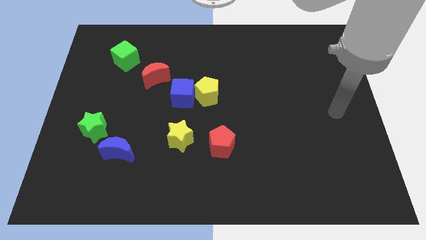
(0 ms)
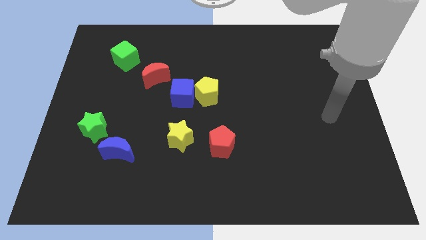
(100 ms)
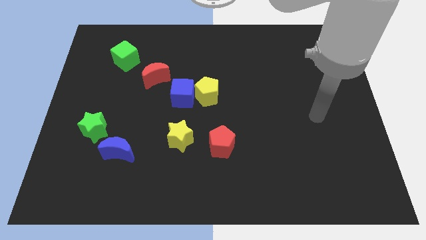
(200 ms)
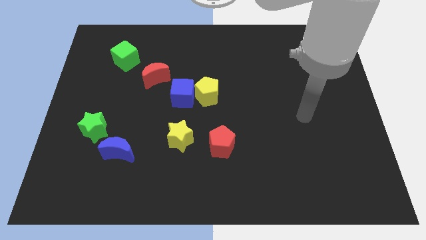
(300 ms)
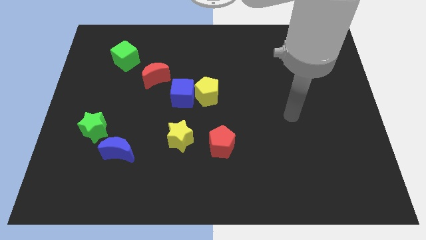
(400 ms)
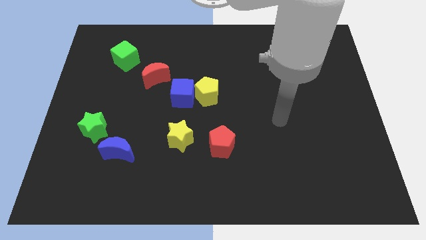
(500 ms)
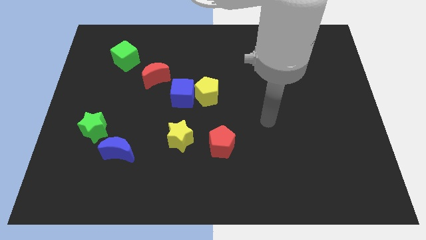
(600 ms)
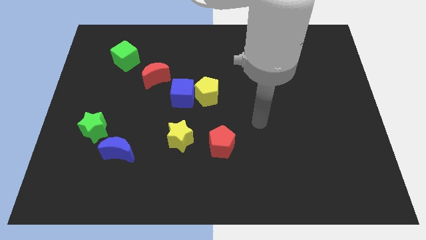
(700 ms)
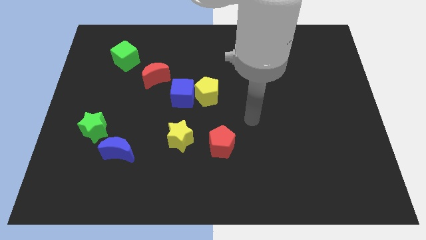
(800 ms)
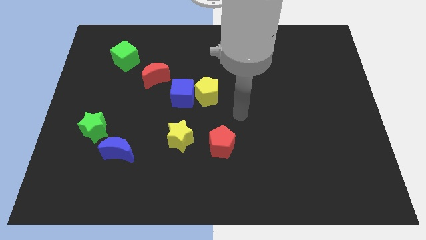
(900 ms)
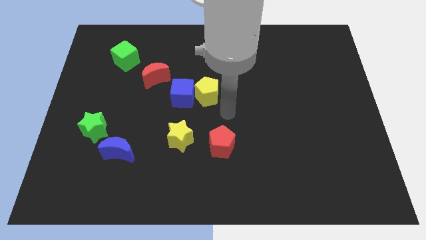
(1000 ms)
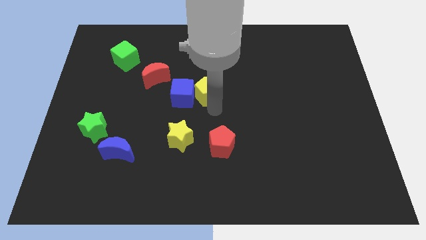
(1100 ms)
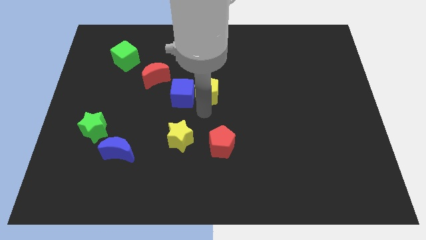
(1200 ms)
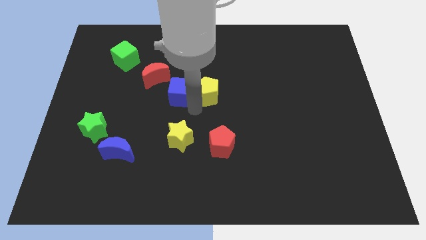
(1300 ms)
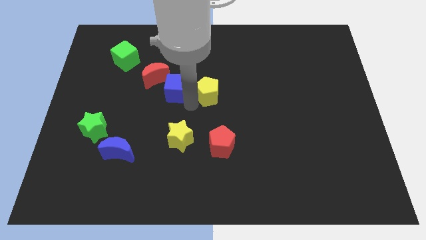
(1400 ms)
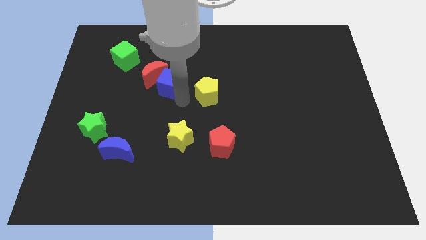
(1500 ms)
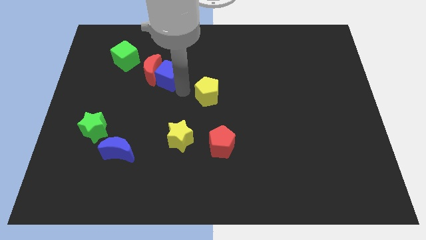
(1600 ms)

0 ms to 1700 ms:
pull the yellow pentagon apart from the blue cube

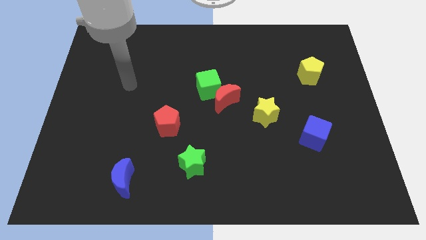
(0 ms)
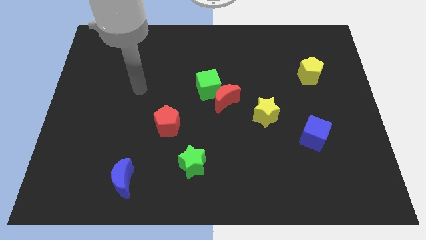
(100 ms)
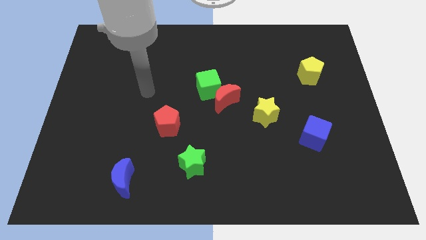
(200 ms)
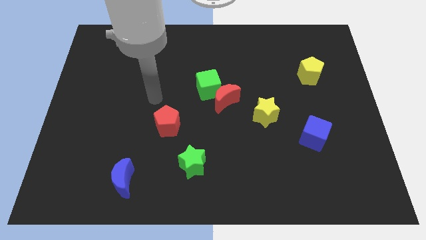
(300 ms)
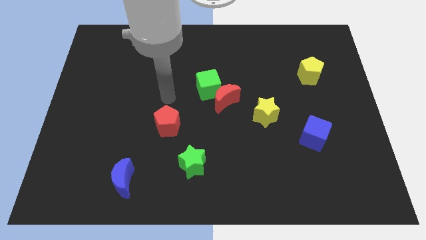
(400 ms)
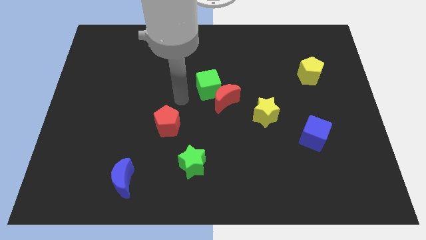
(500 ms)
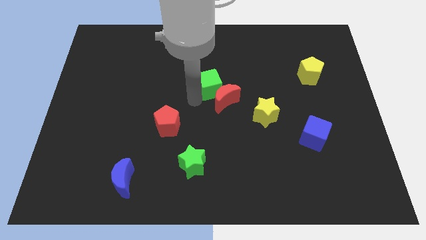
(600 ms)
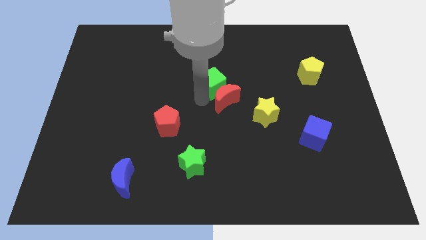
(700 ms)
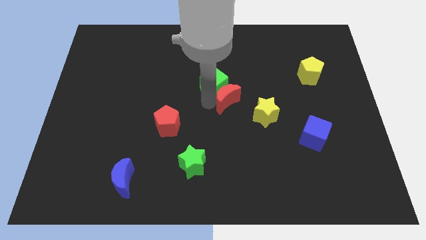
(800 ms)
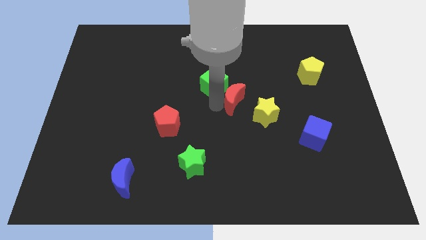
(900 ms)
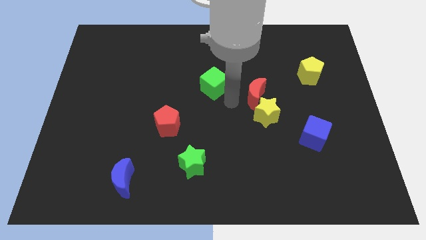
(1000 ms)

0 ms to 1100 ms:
pull the green cube apart from the red moon

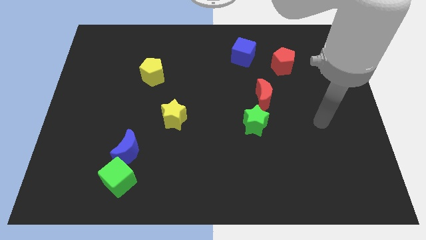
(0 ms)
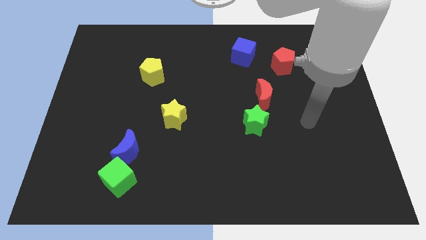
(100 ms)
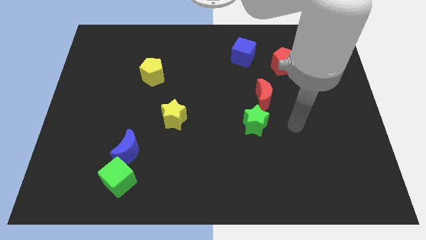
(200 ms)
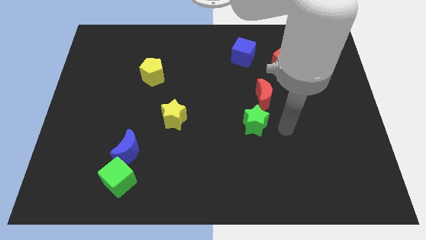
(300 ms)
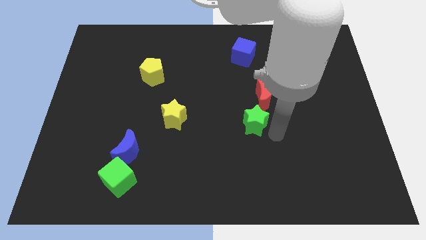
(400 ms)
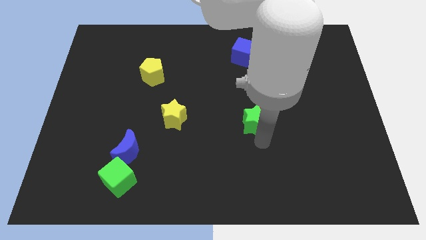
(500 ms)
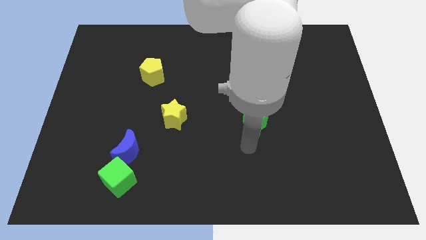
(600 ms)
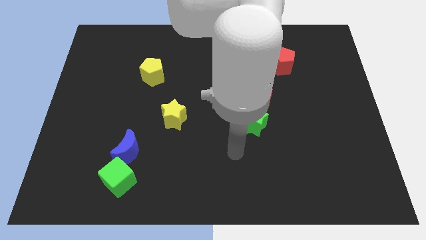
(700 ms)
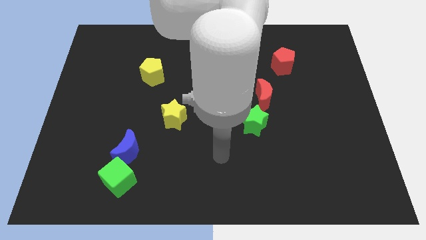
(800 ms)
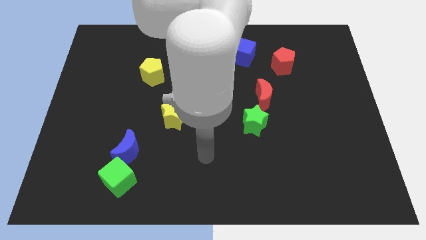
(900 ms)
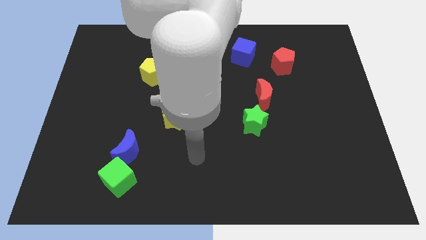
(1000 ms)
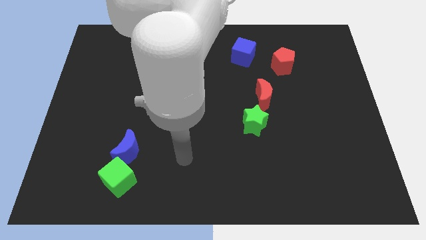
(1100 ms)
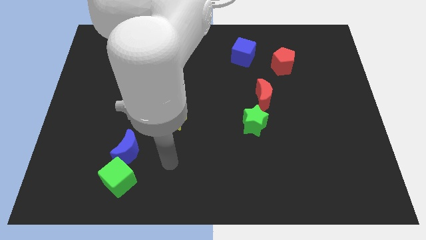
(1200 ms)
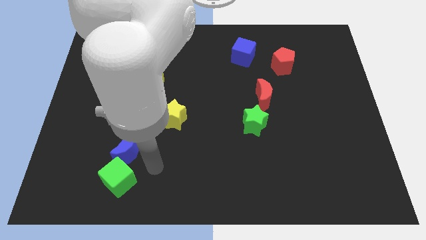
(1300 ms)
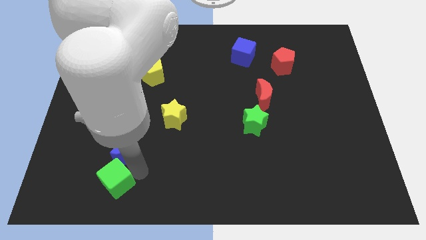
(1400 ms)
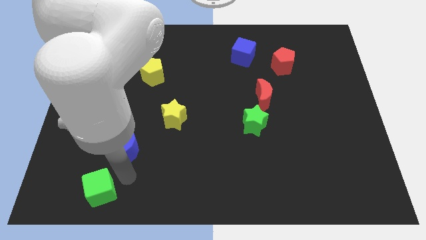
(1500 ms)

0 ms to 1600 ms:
pull the blue moon apart from the green cube

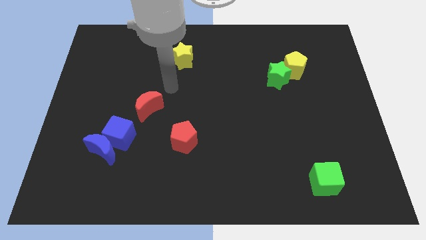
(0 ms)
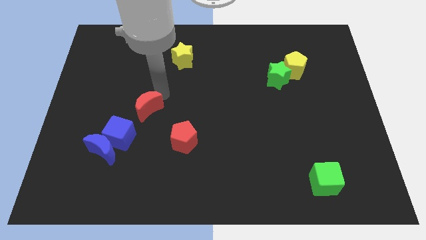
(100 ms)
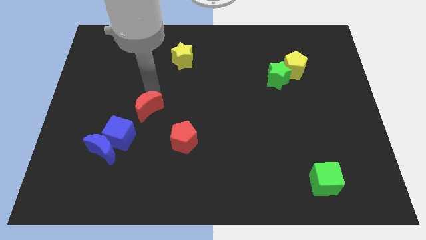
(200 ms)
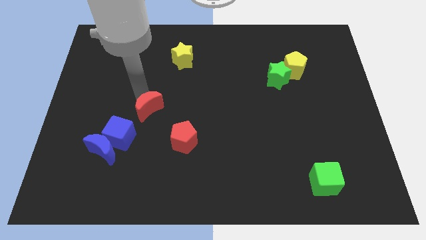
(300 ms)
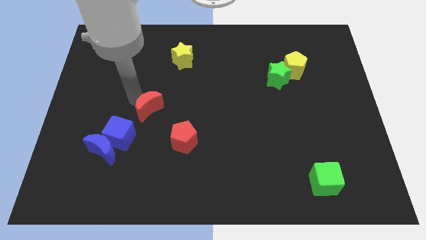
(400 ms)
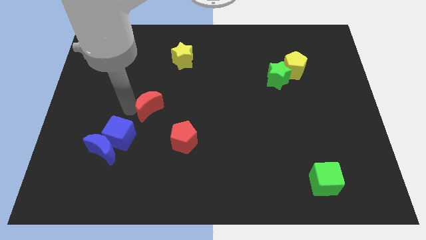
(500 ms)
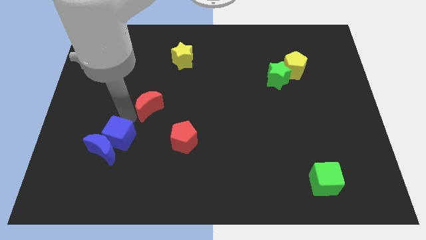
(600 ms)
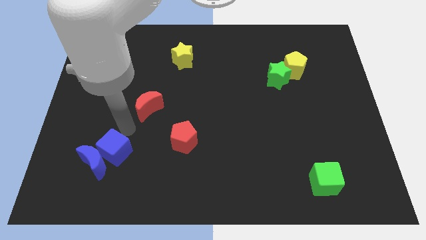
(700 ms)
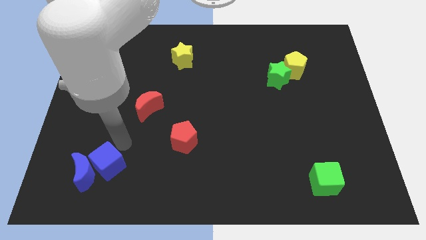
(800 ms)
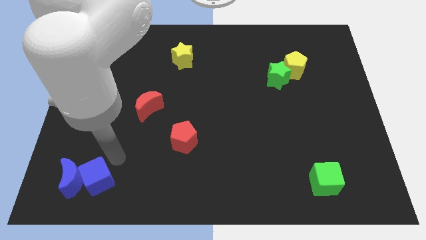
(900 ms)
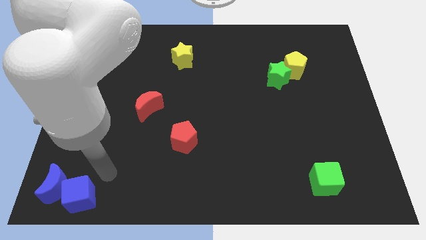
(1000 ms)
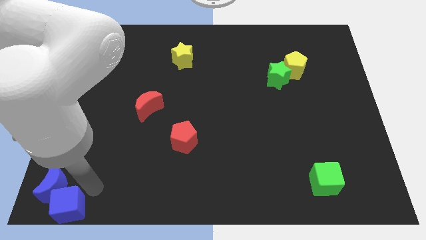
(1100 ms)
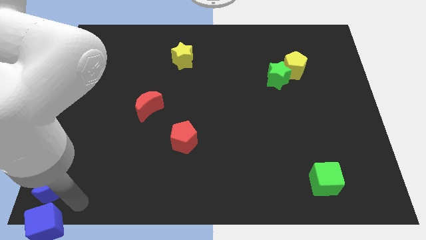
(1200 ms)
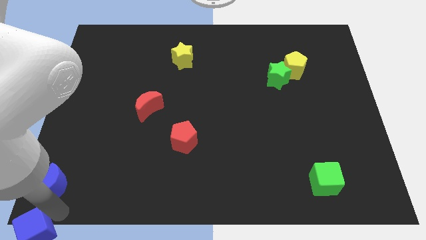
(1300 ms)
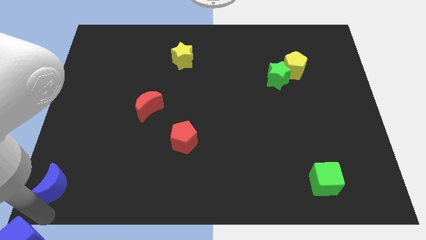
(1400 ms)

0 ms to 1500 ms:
pull the blue moon apart from the blue cube

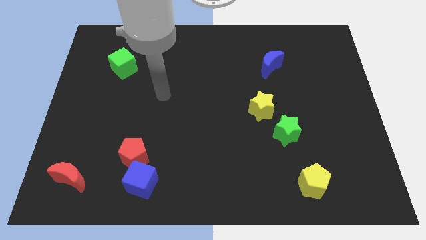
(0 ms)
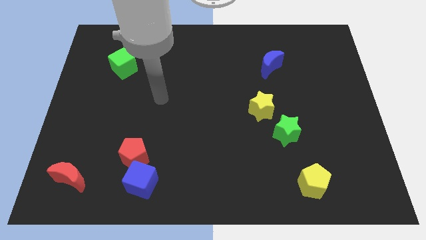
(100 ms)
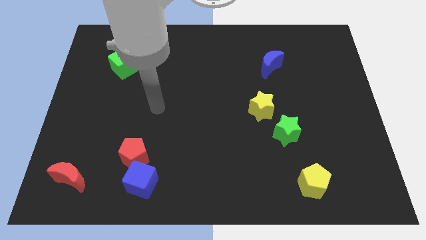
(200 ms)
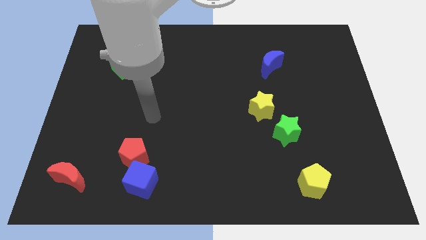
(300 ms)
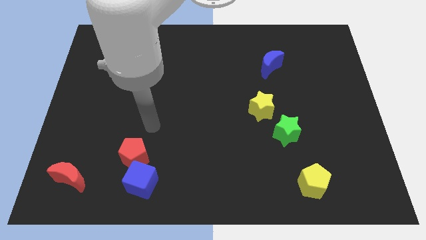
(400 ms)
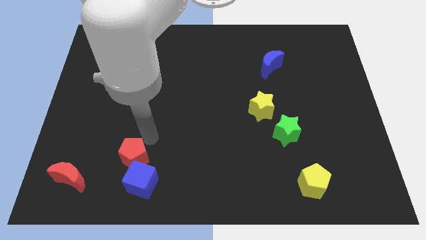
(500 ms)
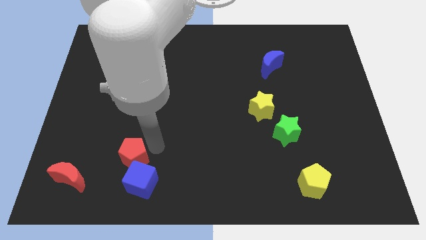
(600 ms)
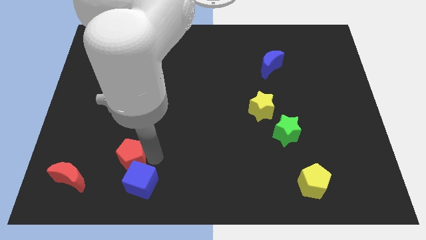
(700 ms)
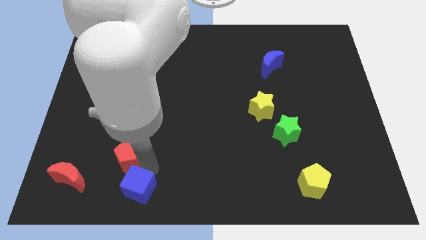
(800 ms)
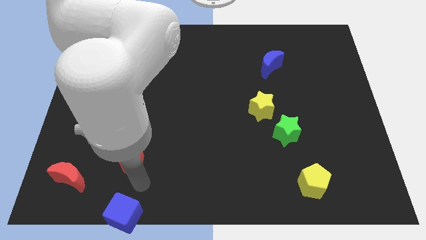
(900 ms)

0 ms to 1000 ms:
pull the red pentagon apart from the blue cube

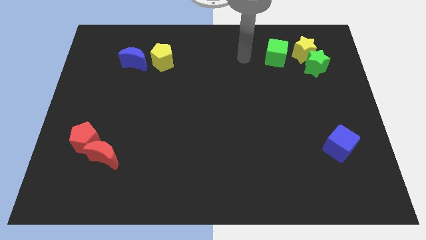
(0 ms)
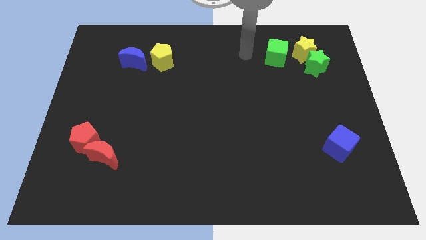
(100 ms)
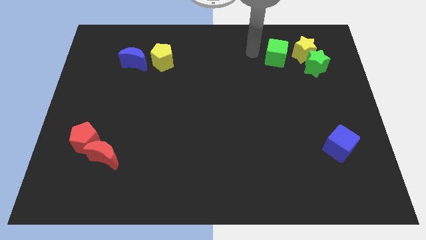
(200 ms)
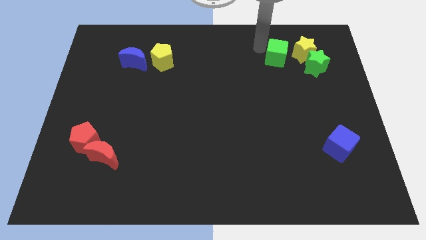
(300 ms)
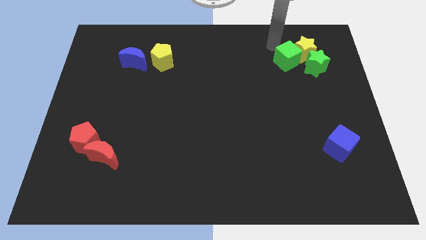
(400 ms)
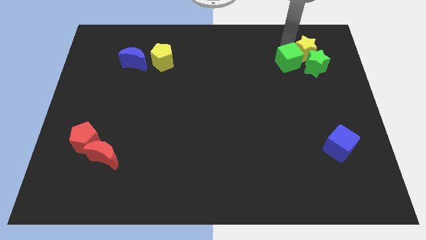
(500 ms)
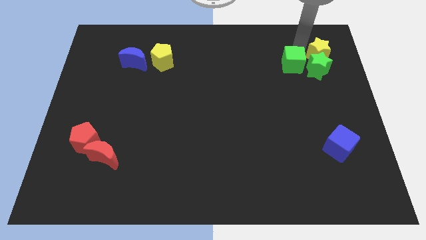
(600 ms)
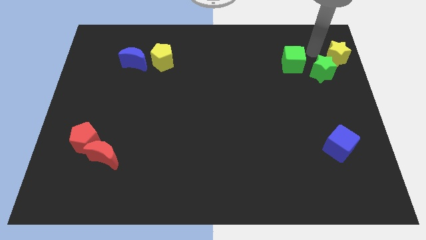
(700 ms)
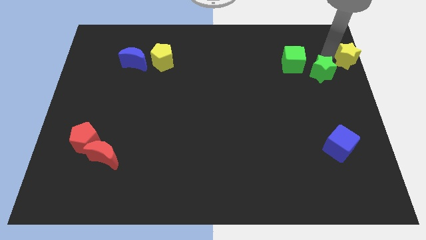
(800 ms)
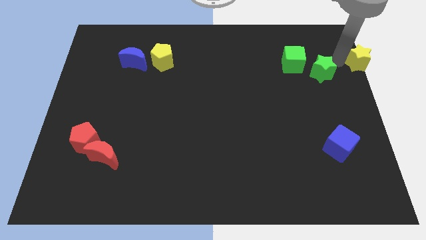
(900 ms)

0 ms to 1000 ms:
pull the green star apart from the yellow star

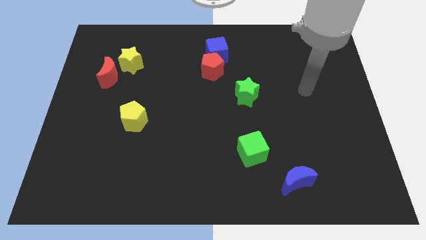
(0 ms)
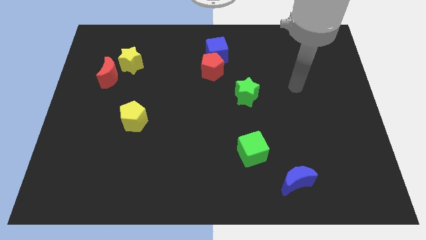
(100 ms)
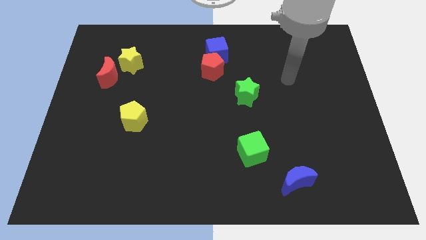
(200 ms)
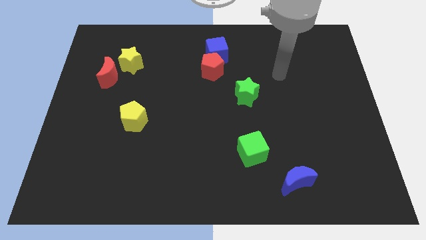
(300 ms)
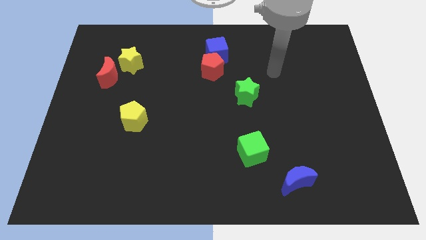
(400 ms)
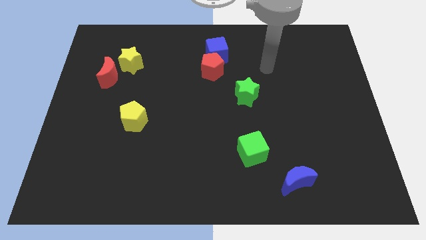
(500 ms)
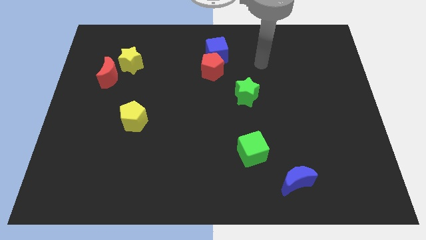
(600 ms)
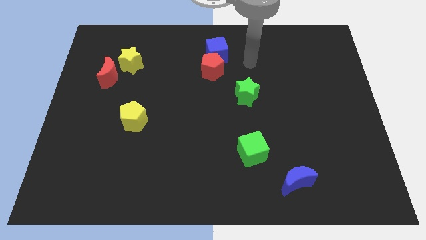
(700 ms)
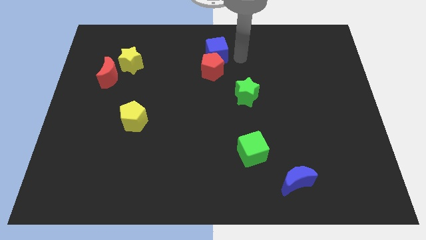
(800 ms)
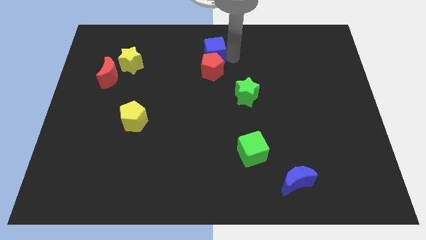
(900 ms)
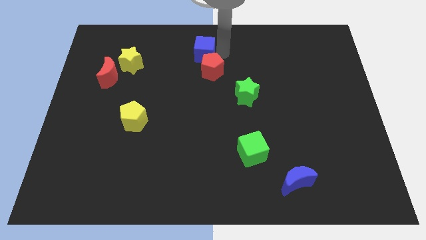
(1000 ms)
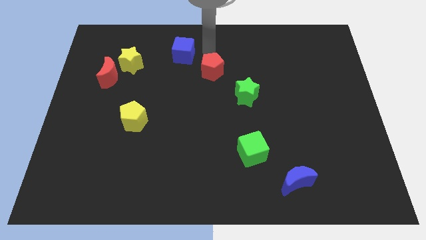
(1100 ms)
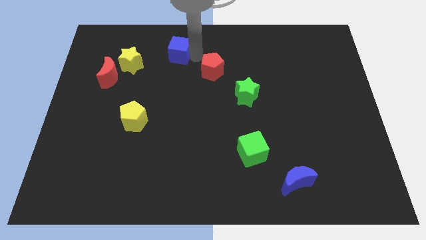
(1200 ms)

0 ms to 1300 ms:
move the red pentagon away from the blue cube

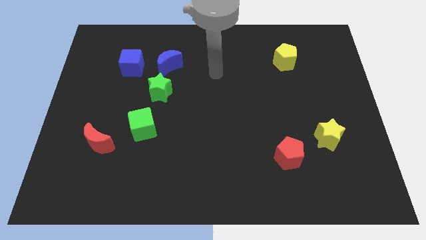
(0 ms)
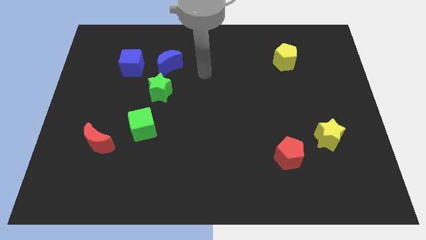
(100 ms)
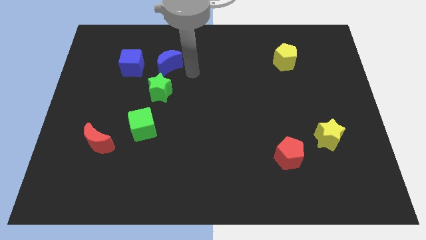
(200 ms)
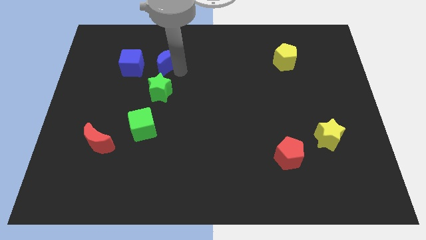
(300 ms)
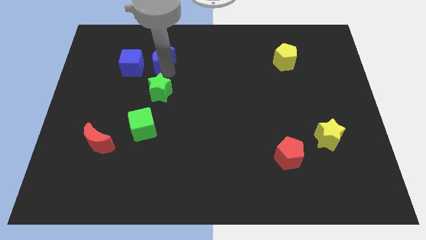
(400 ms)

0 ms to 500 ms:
move the green star away from the blue moon
